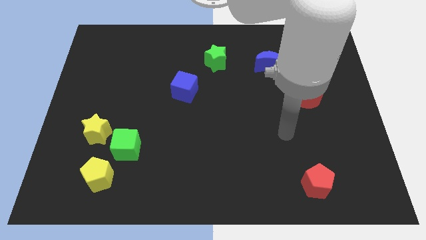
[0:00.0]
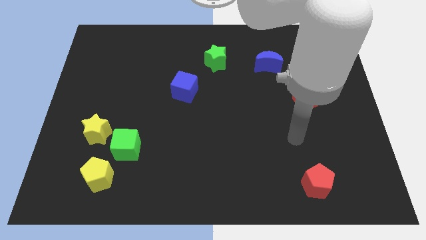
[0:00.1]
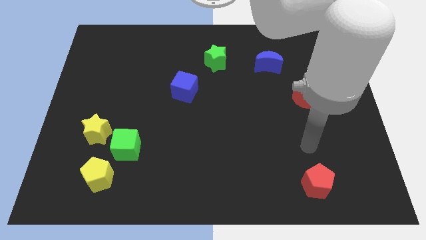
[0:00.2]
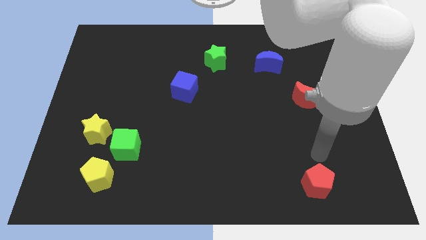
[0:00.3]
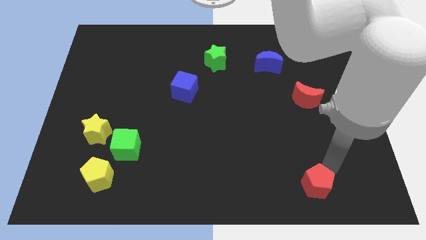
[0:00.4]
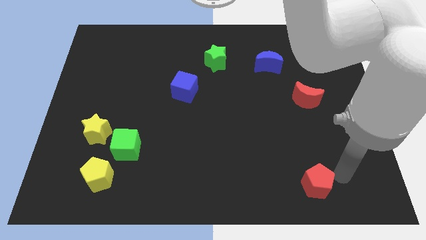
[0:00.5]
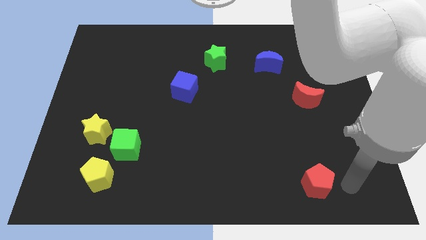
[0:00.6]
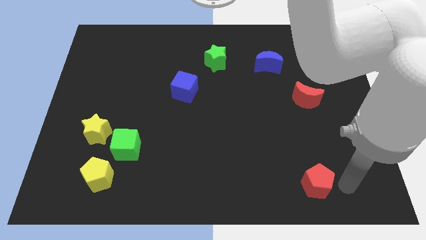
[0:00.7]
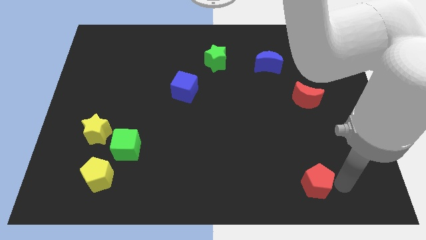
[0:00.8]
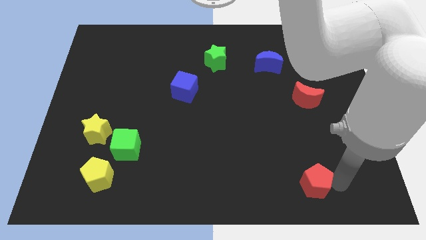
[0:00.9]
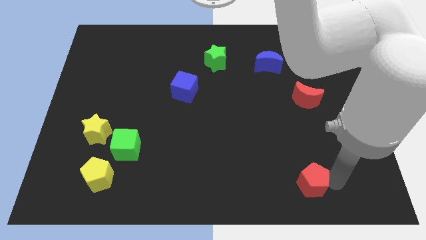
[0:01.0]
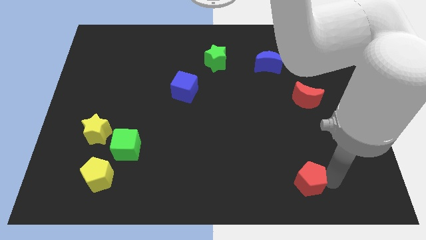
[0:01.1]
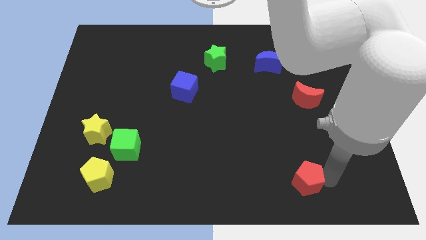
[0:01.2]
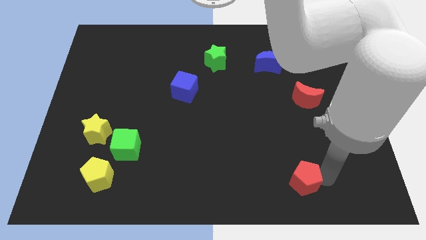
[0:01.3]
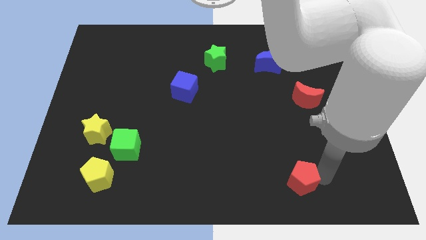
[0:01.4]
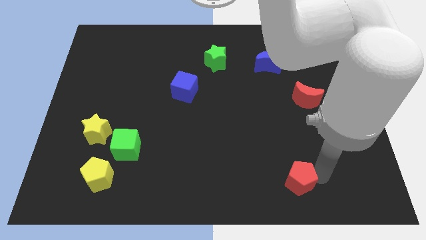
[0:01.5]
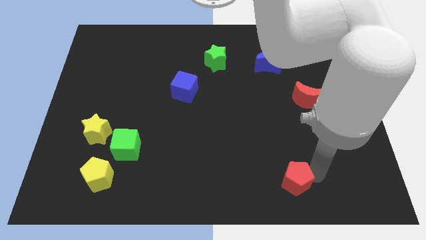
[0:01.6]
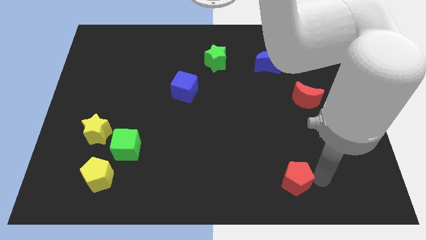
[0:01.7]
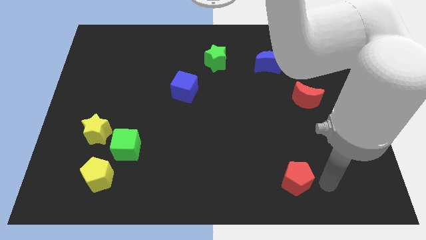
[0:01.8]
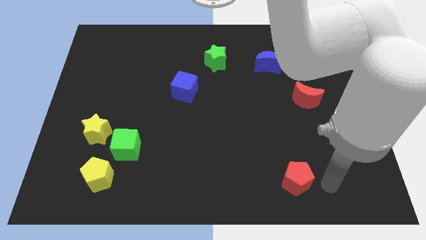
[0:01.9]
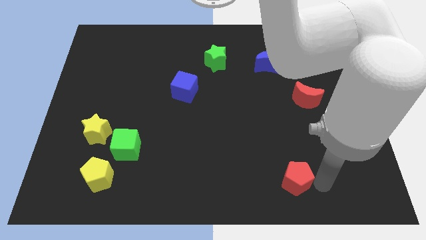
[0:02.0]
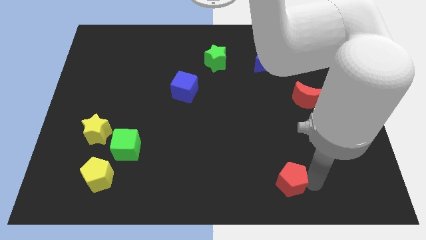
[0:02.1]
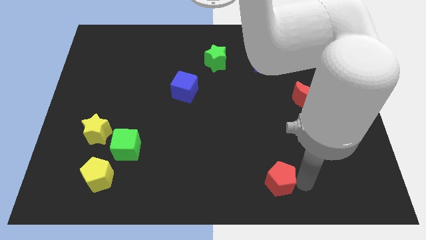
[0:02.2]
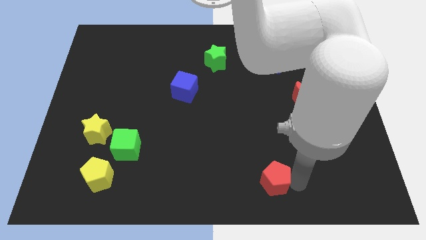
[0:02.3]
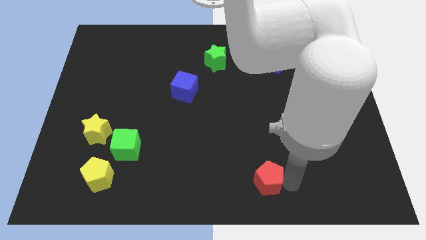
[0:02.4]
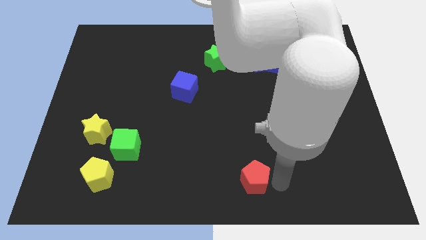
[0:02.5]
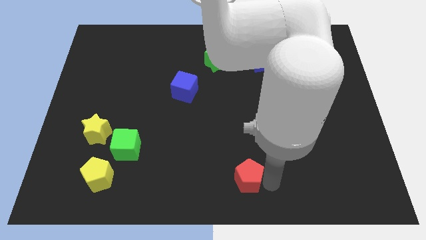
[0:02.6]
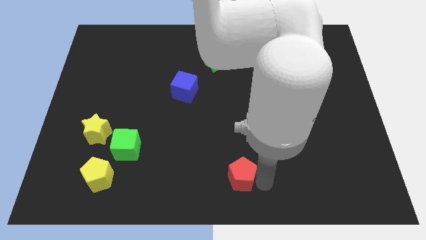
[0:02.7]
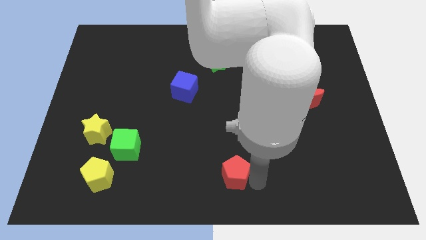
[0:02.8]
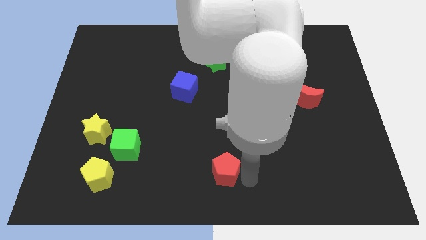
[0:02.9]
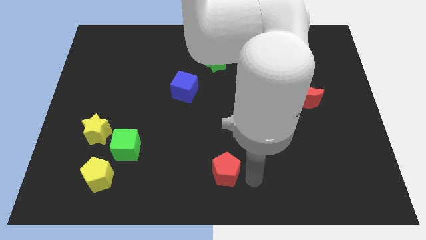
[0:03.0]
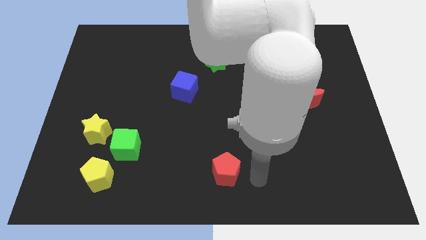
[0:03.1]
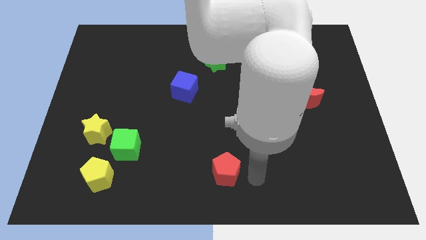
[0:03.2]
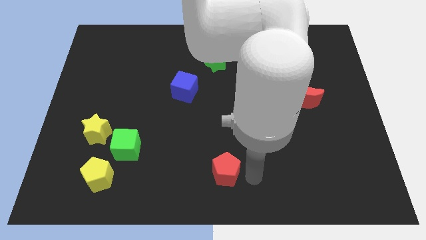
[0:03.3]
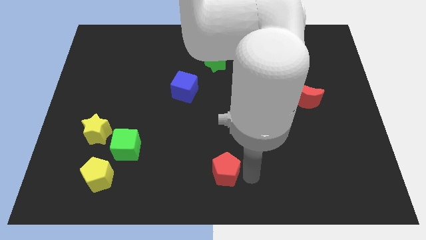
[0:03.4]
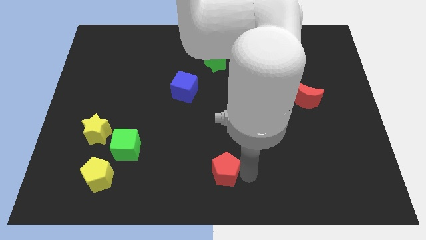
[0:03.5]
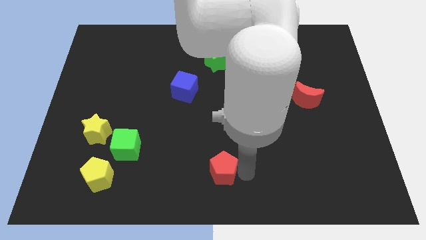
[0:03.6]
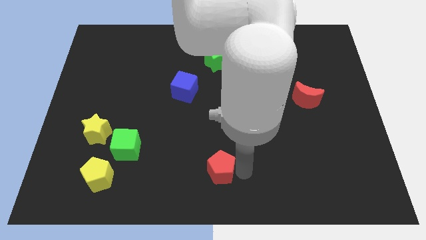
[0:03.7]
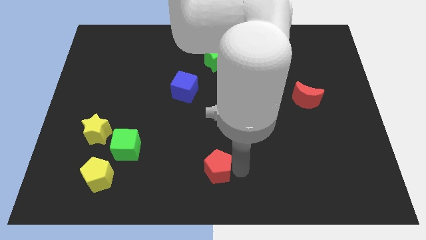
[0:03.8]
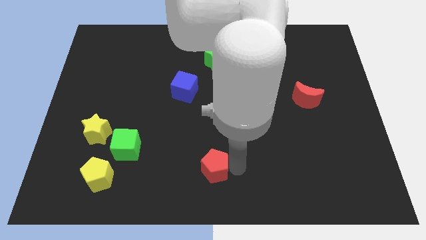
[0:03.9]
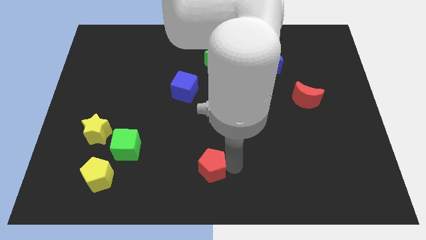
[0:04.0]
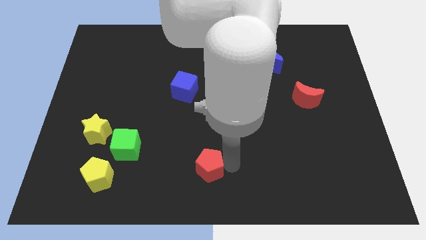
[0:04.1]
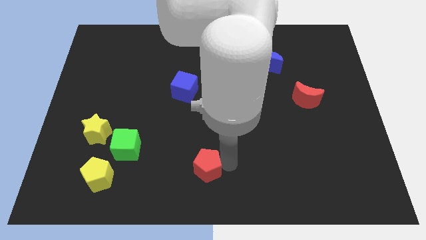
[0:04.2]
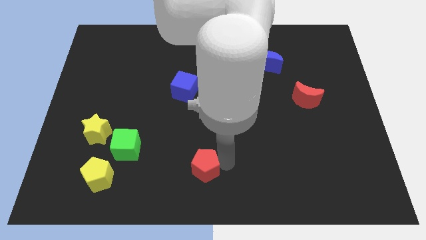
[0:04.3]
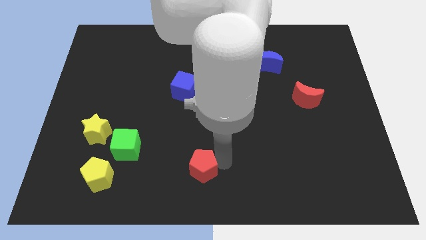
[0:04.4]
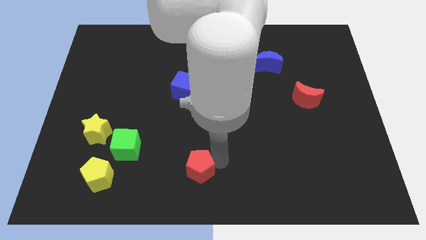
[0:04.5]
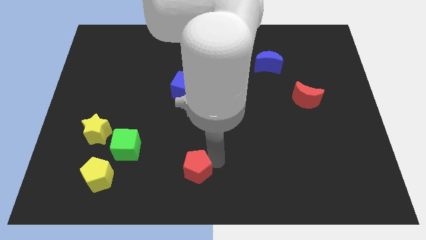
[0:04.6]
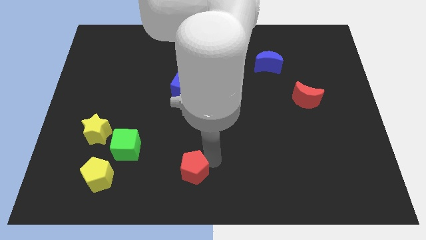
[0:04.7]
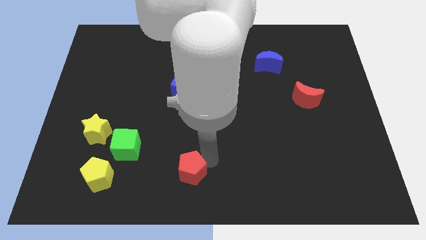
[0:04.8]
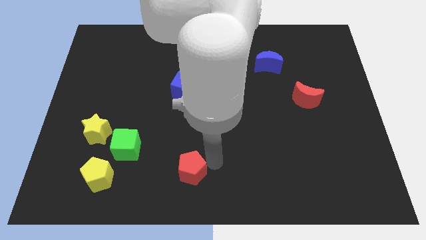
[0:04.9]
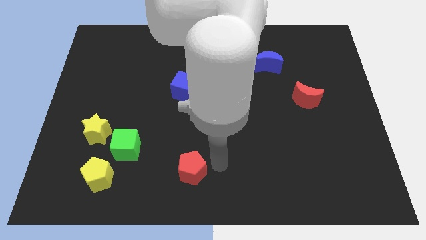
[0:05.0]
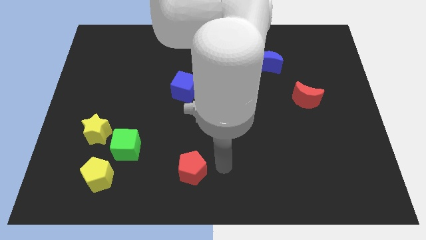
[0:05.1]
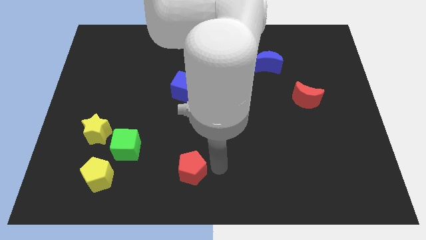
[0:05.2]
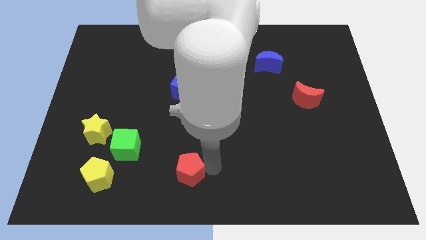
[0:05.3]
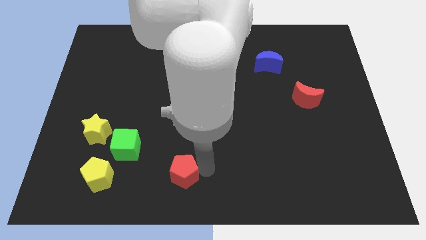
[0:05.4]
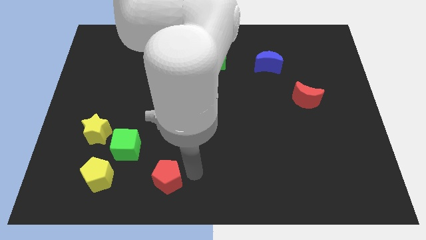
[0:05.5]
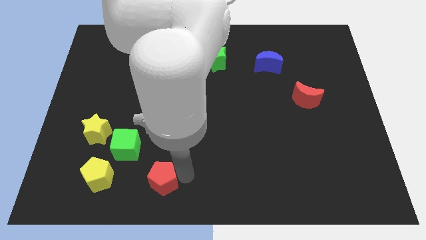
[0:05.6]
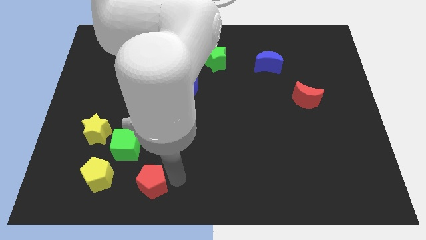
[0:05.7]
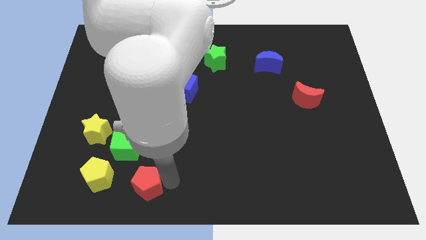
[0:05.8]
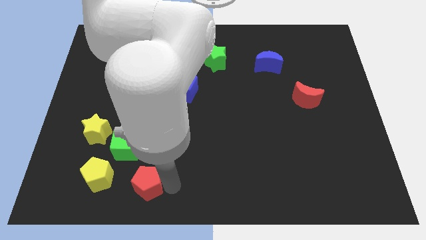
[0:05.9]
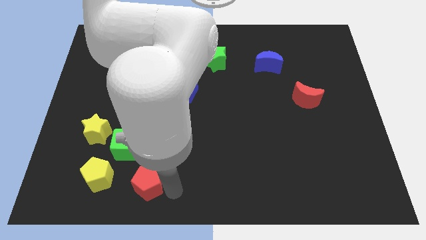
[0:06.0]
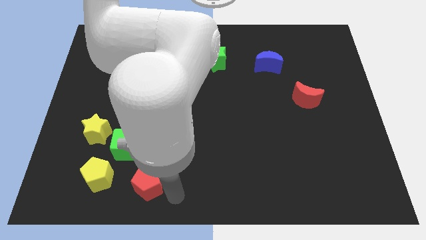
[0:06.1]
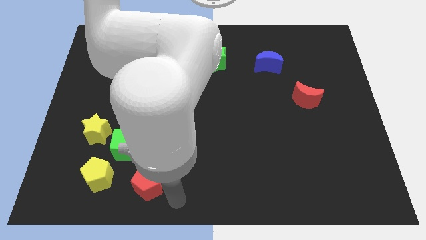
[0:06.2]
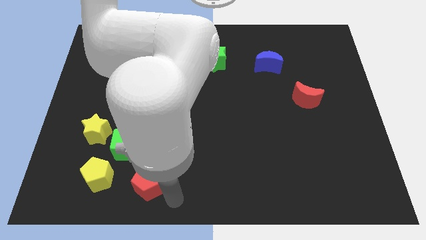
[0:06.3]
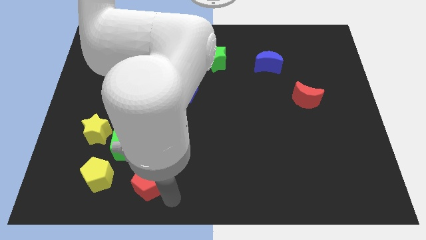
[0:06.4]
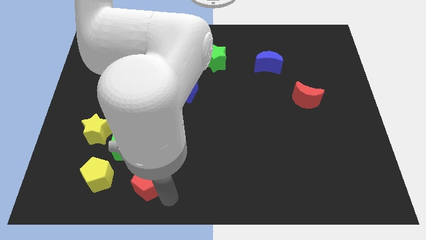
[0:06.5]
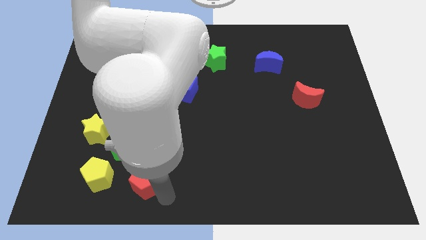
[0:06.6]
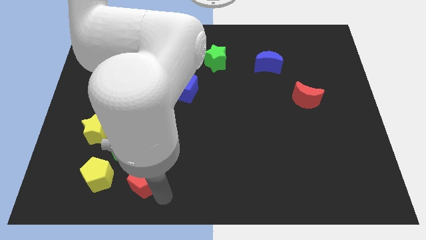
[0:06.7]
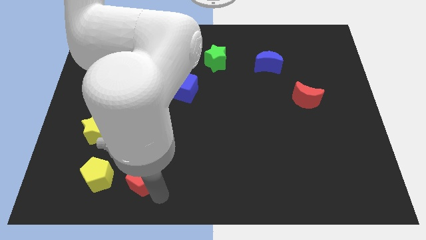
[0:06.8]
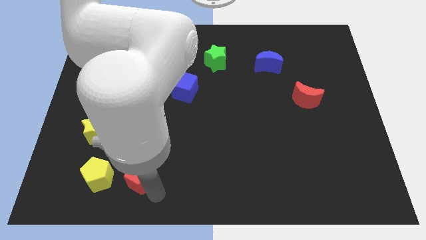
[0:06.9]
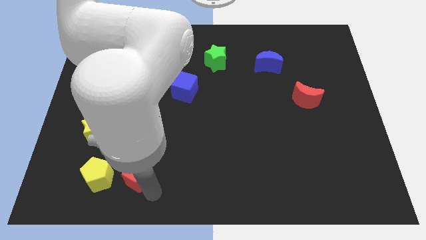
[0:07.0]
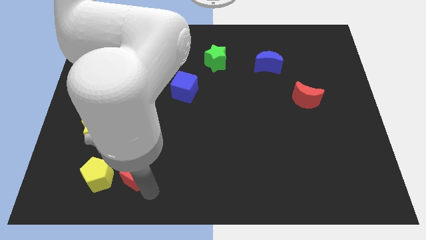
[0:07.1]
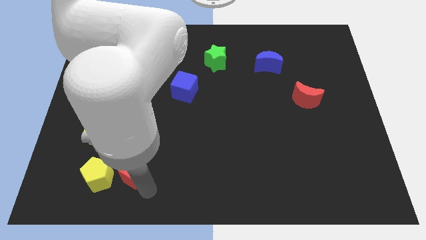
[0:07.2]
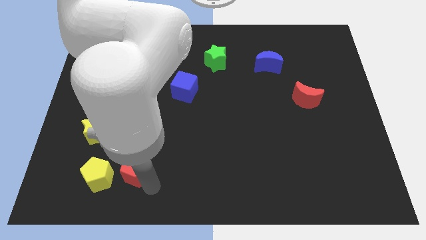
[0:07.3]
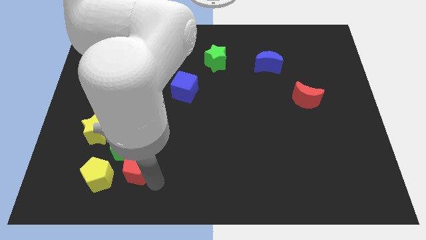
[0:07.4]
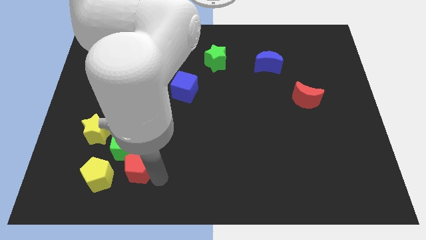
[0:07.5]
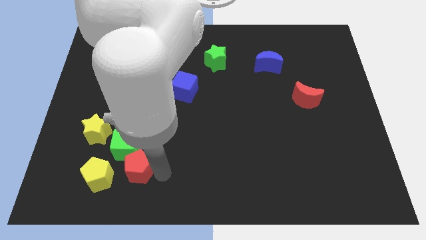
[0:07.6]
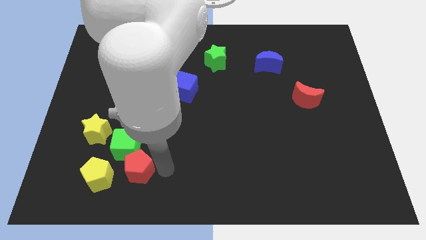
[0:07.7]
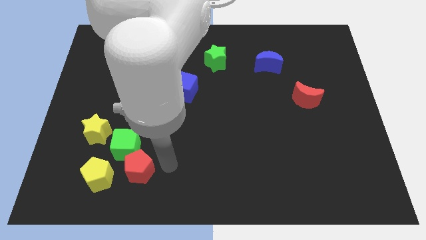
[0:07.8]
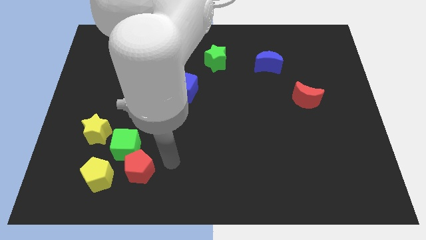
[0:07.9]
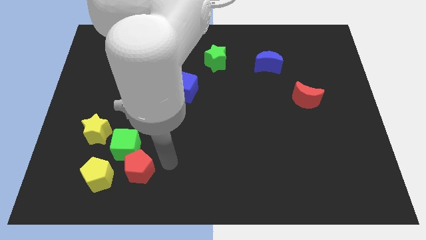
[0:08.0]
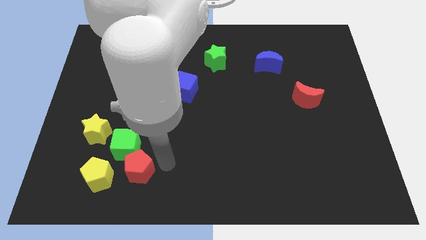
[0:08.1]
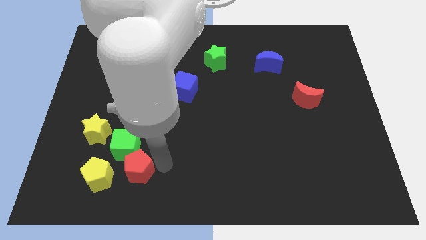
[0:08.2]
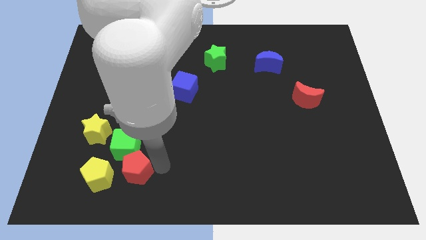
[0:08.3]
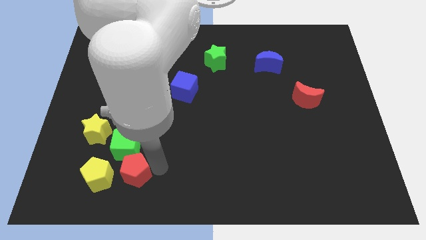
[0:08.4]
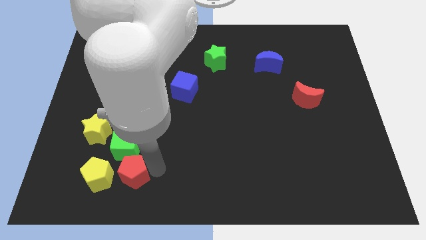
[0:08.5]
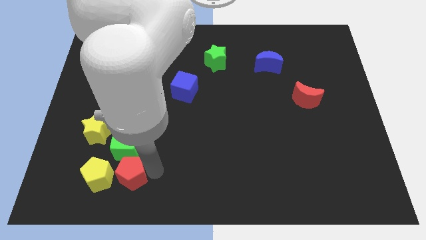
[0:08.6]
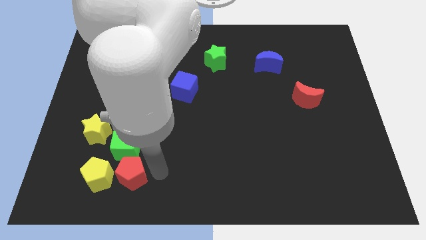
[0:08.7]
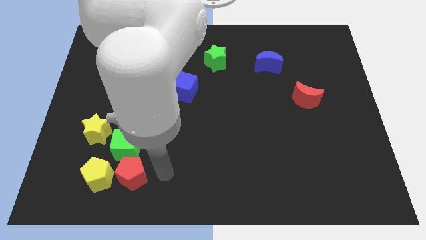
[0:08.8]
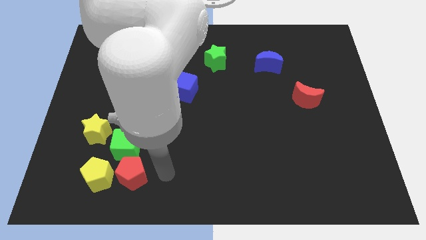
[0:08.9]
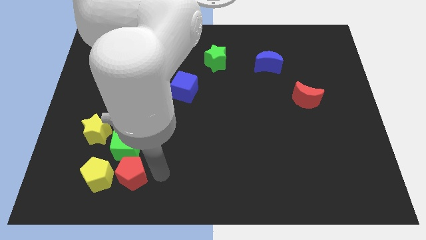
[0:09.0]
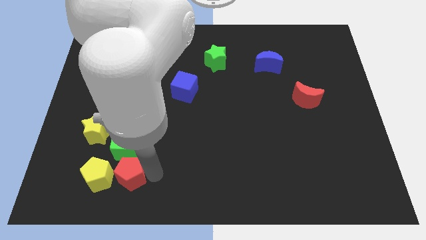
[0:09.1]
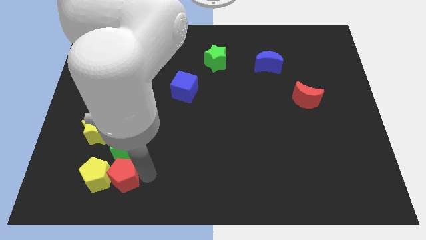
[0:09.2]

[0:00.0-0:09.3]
move the red pentagon next to the yellow pentagon
